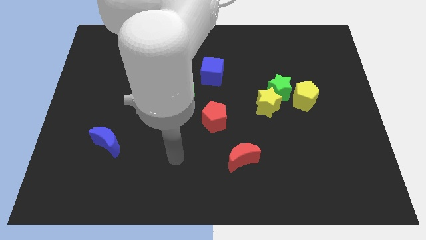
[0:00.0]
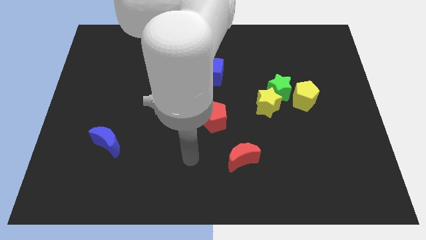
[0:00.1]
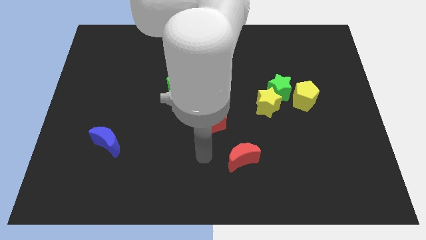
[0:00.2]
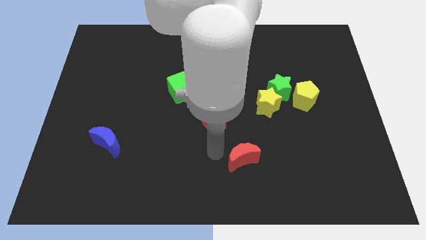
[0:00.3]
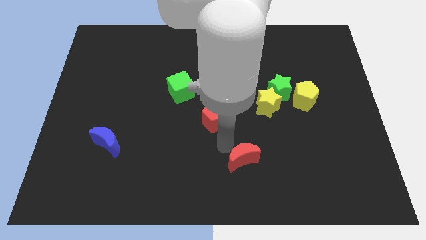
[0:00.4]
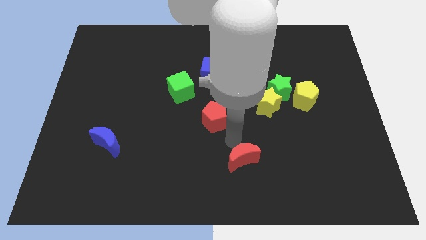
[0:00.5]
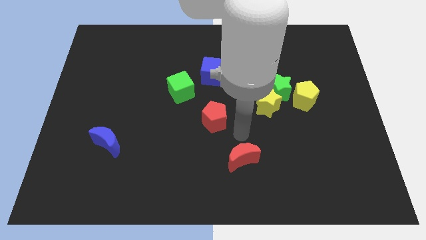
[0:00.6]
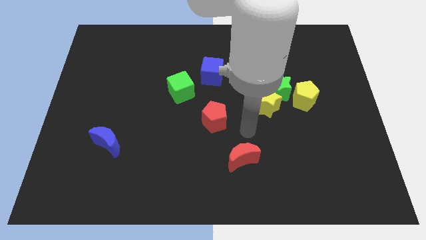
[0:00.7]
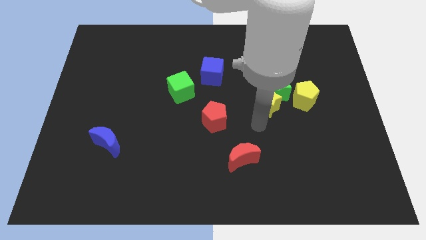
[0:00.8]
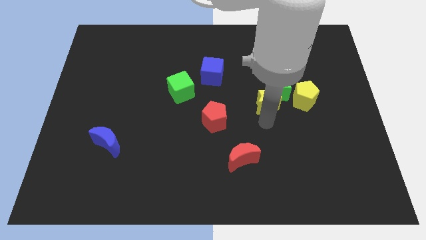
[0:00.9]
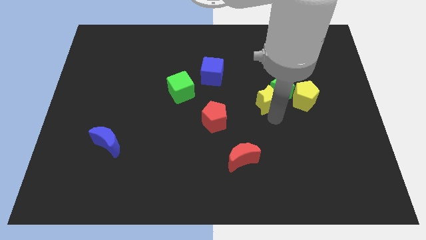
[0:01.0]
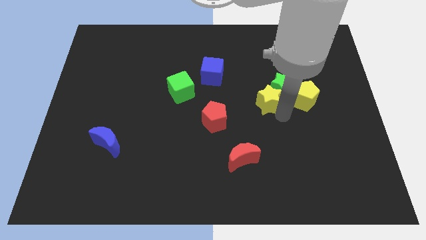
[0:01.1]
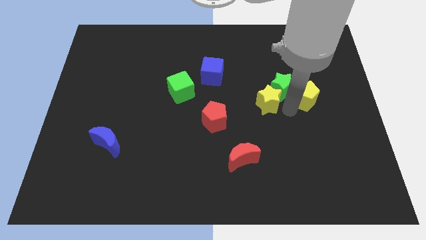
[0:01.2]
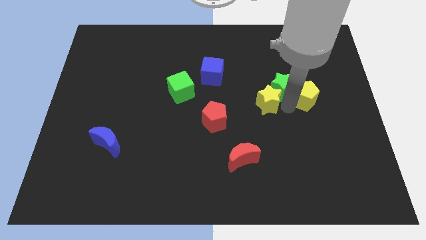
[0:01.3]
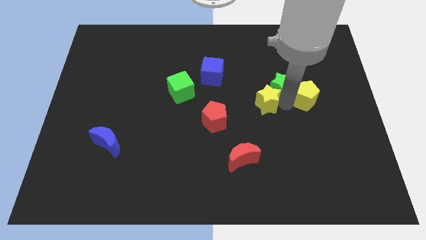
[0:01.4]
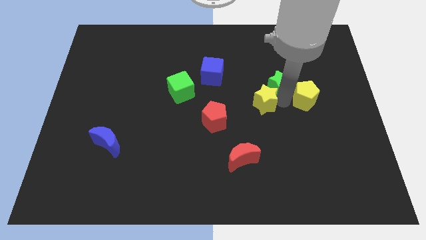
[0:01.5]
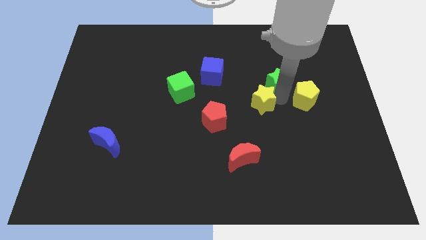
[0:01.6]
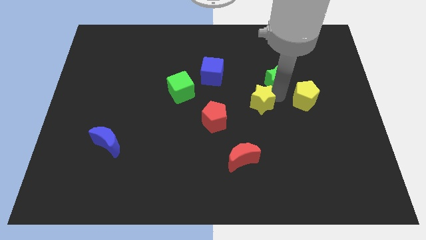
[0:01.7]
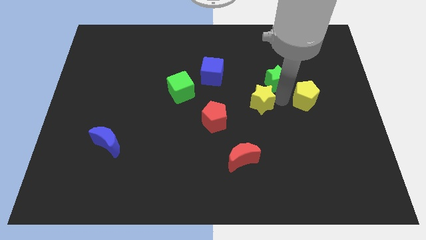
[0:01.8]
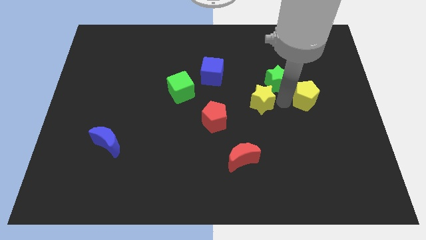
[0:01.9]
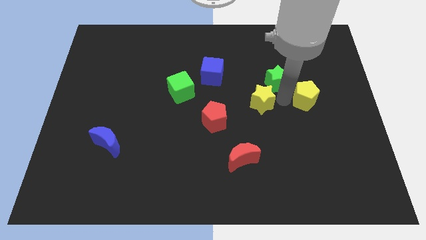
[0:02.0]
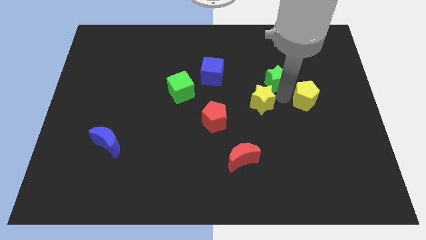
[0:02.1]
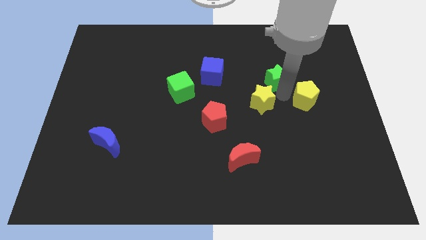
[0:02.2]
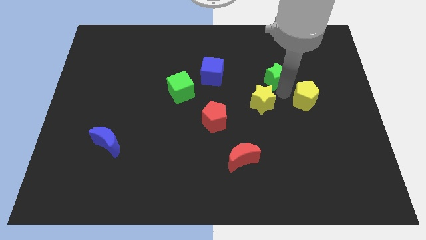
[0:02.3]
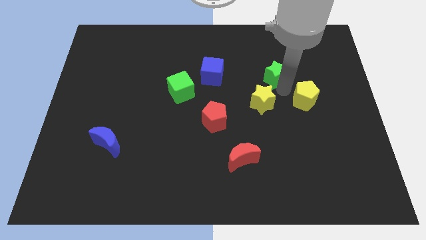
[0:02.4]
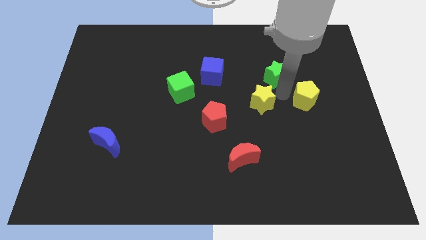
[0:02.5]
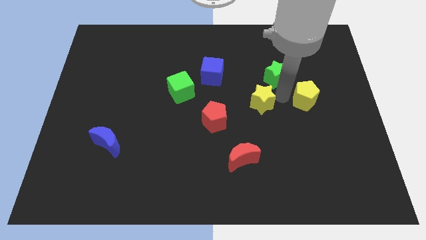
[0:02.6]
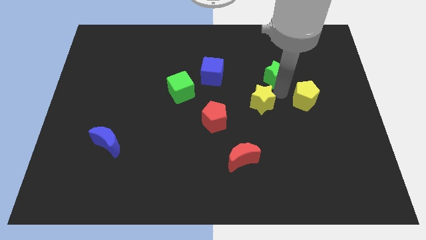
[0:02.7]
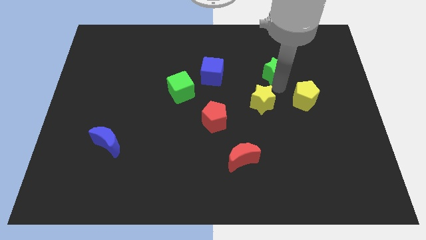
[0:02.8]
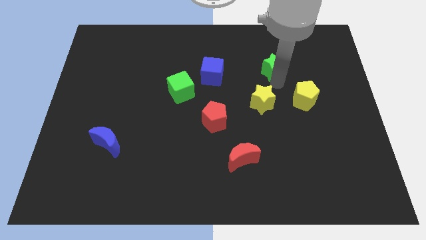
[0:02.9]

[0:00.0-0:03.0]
separate the green star from the yellow star and yellow pentagon

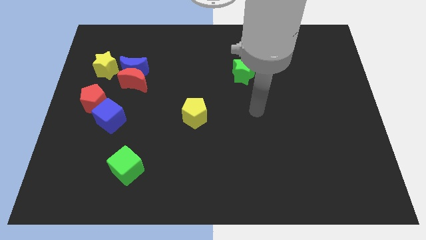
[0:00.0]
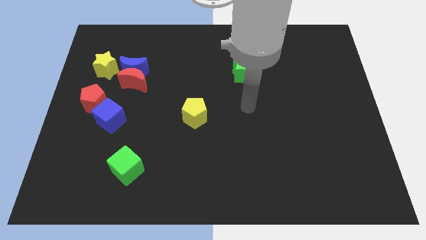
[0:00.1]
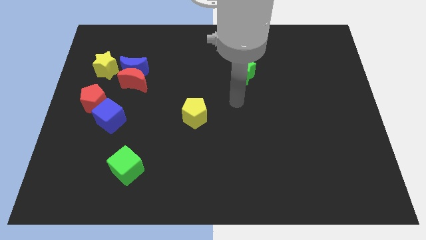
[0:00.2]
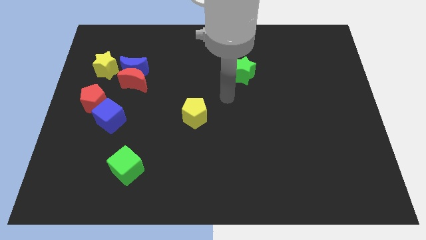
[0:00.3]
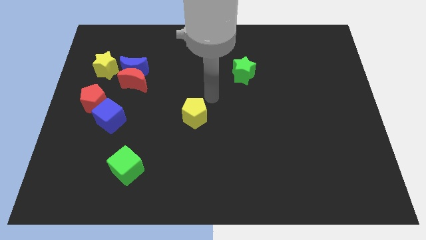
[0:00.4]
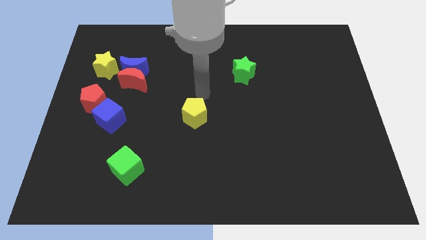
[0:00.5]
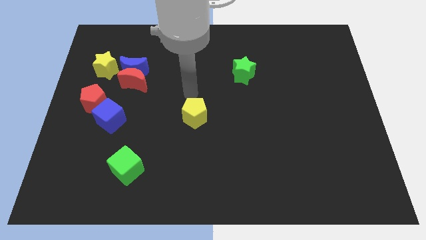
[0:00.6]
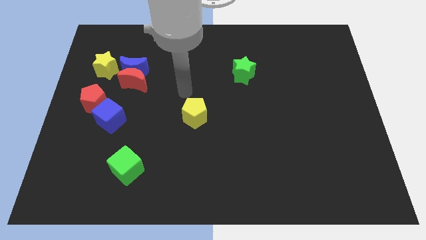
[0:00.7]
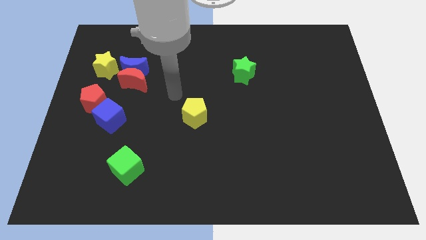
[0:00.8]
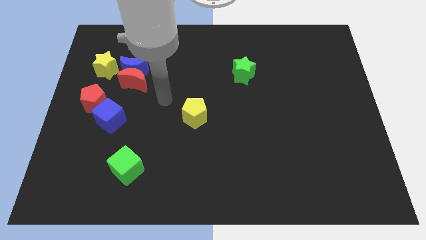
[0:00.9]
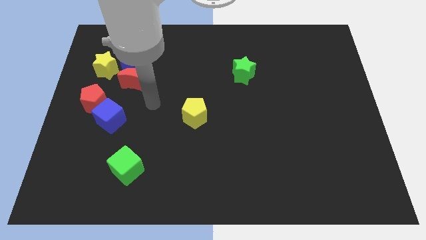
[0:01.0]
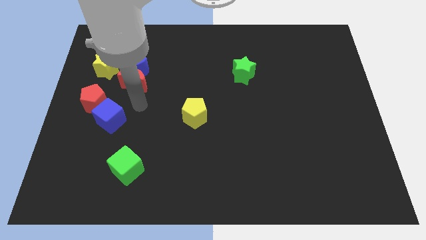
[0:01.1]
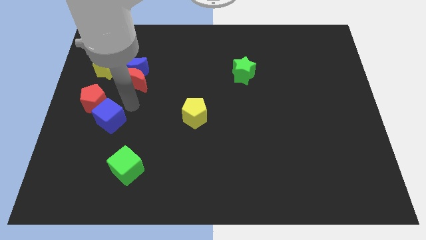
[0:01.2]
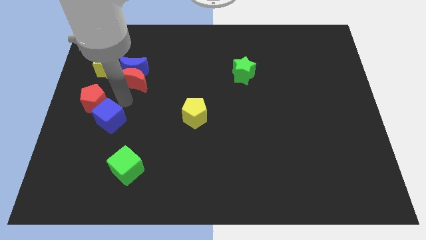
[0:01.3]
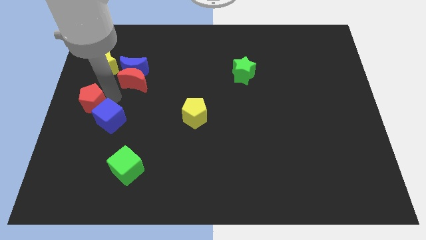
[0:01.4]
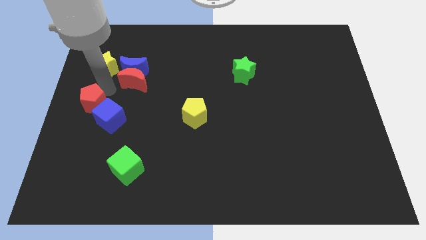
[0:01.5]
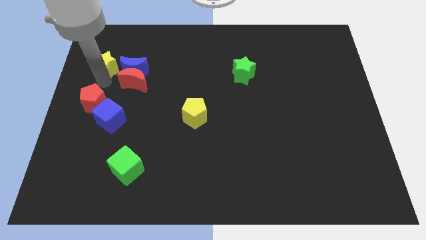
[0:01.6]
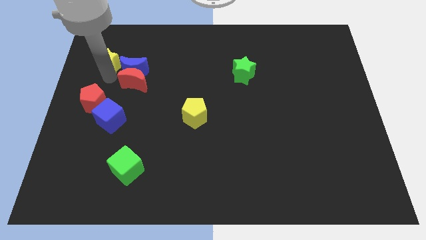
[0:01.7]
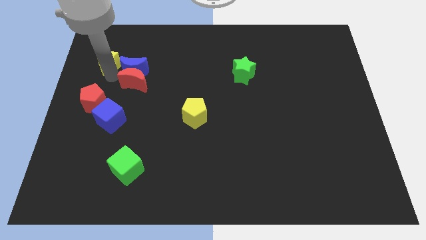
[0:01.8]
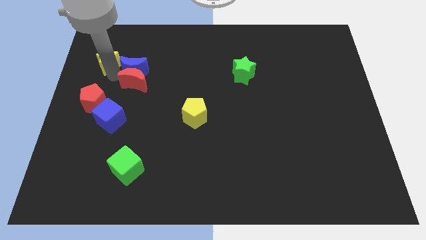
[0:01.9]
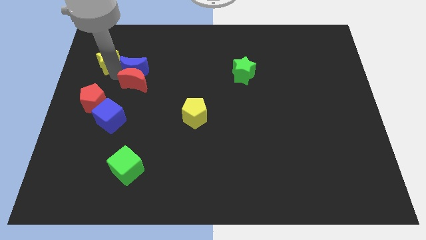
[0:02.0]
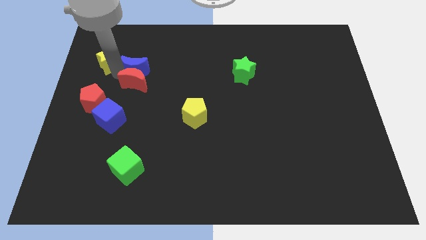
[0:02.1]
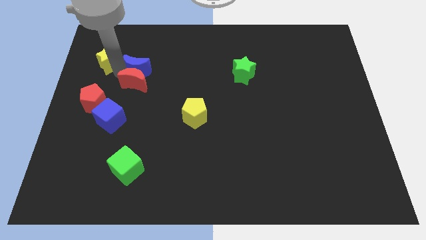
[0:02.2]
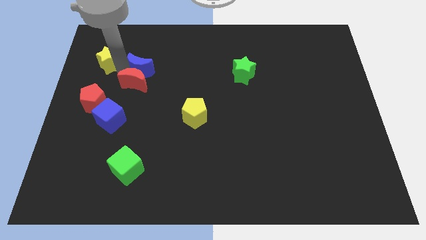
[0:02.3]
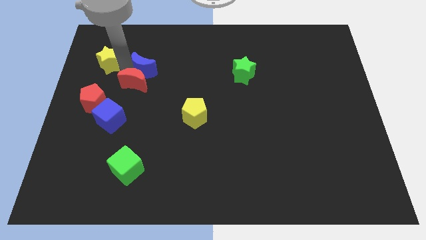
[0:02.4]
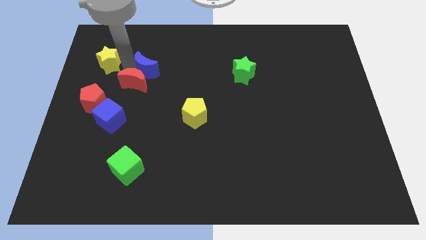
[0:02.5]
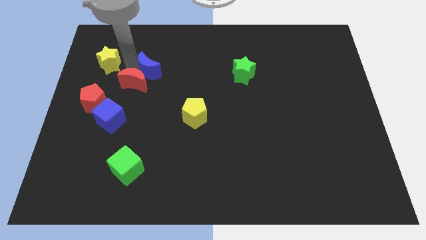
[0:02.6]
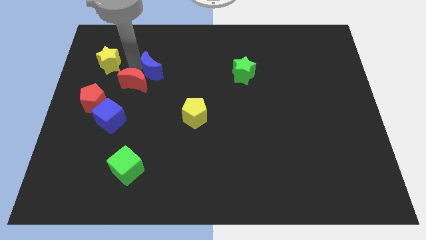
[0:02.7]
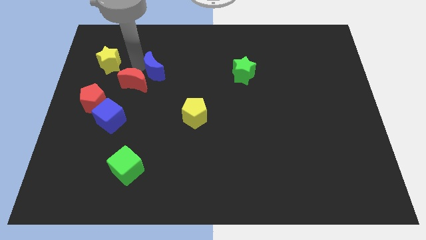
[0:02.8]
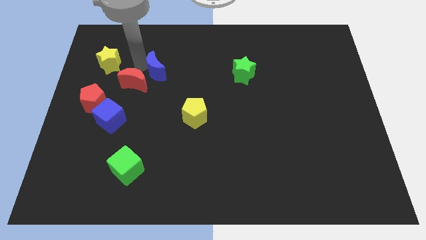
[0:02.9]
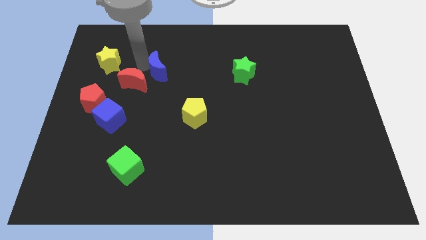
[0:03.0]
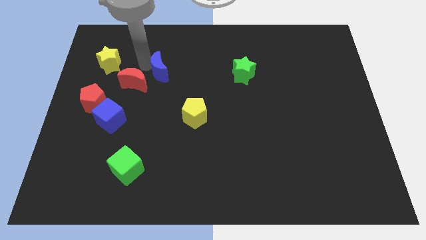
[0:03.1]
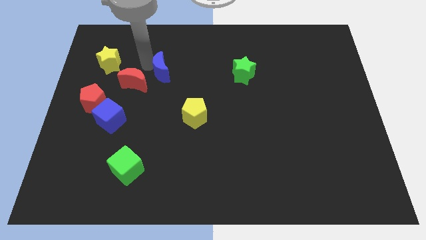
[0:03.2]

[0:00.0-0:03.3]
separate the blue moon from the red moon and yellow star

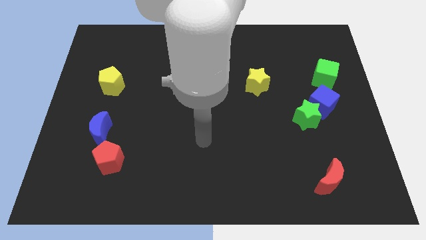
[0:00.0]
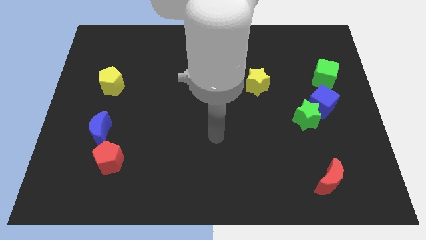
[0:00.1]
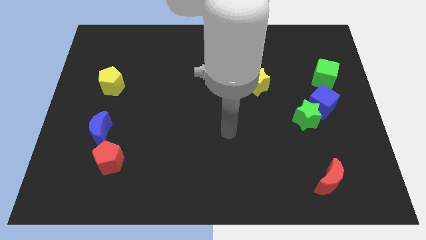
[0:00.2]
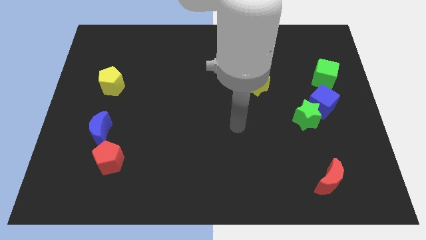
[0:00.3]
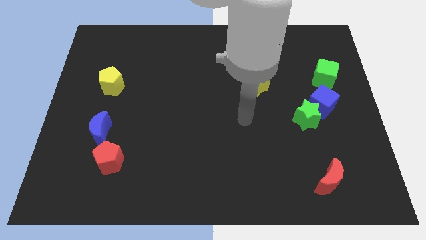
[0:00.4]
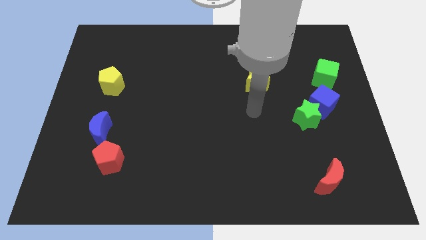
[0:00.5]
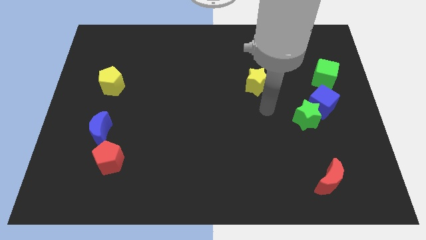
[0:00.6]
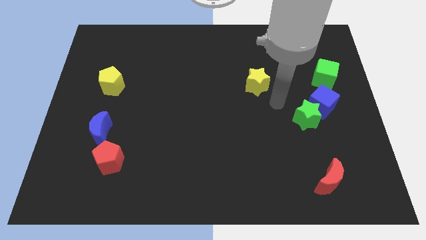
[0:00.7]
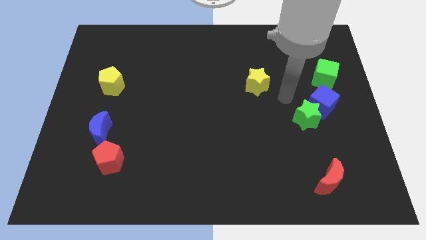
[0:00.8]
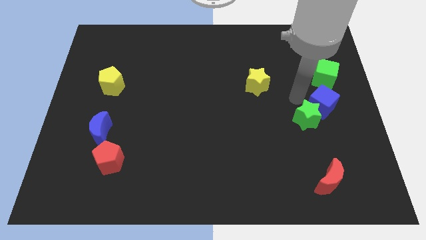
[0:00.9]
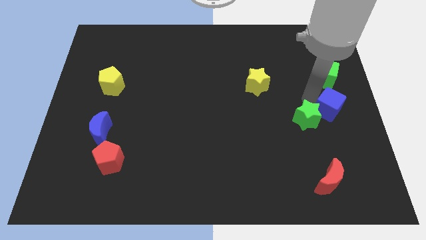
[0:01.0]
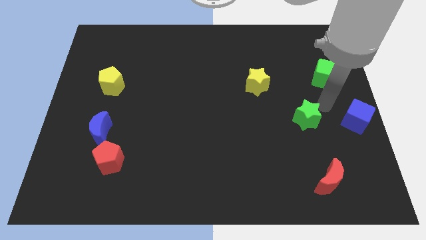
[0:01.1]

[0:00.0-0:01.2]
separate the green star from the blue cube

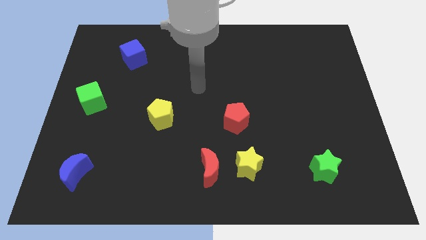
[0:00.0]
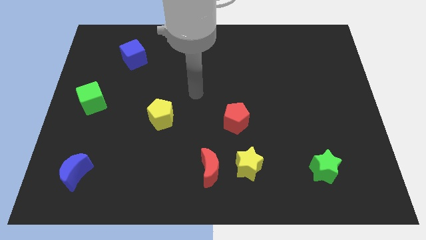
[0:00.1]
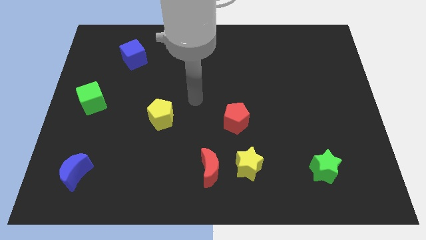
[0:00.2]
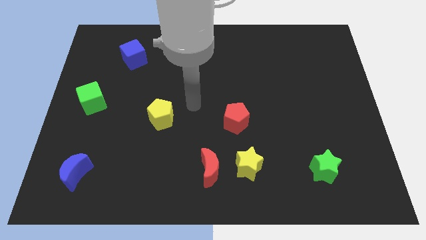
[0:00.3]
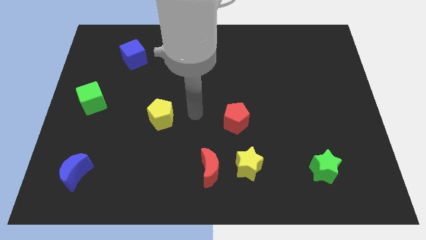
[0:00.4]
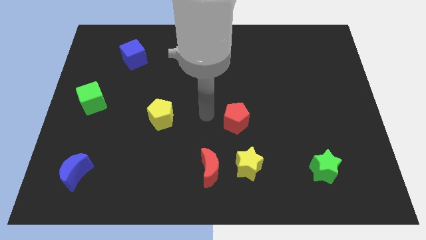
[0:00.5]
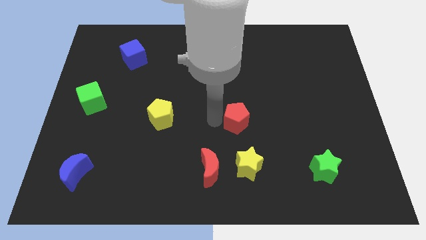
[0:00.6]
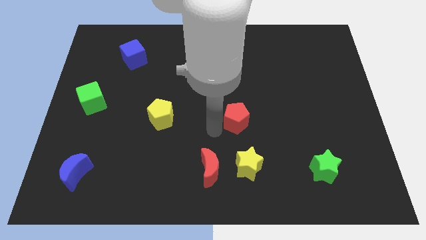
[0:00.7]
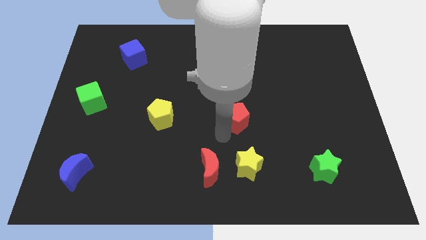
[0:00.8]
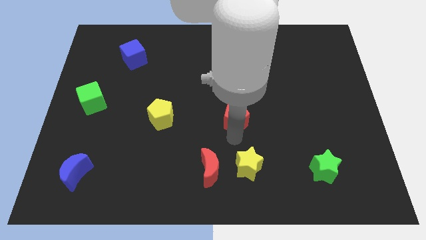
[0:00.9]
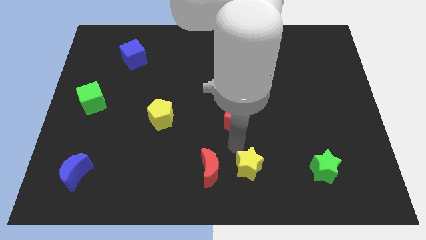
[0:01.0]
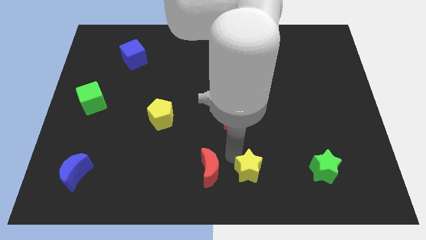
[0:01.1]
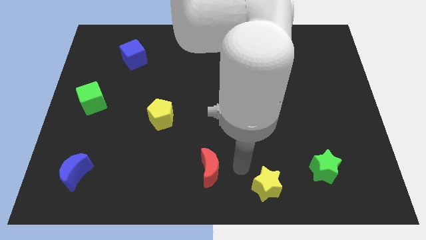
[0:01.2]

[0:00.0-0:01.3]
pull the red moon apart from the yellow star

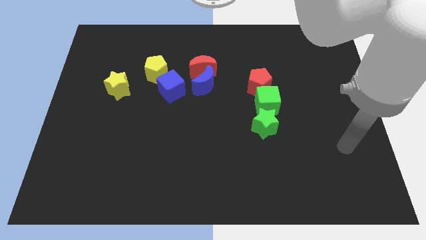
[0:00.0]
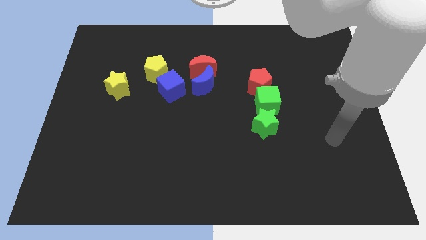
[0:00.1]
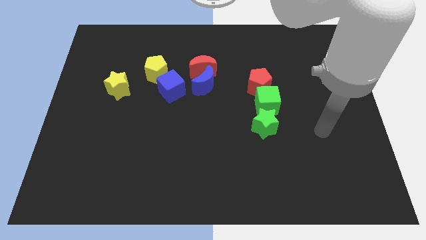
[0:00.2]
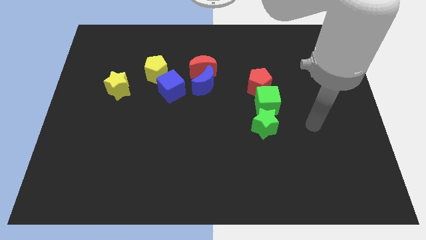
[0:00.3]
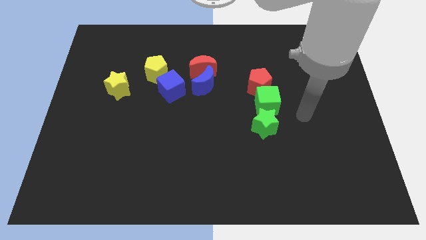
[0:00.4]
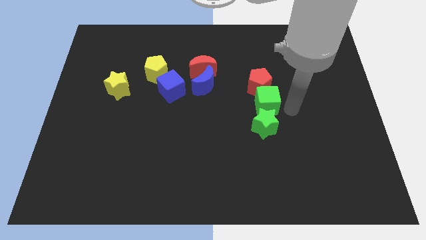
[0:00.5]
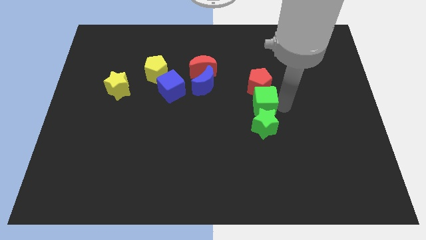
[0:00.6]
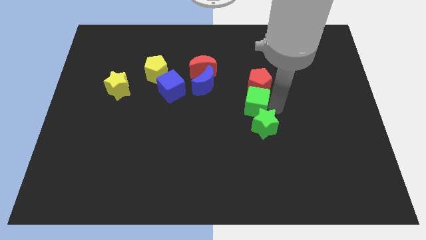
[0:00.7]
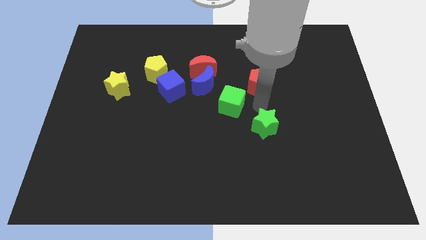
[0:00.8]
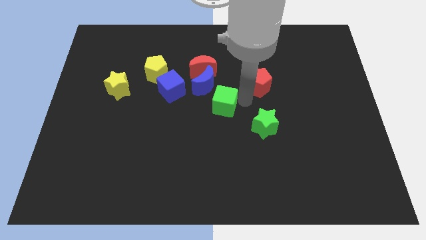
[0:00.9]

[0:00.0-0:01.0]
pull the red pentagon apart from the green cube
